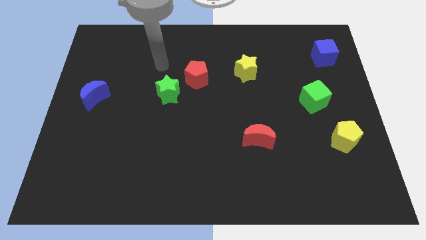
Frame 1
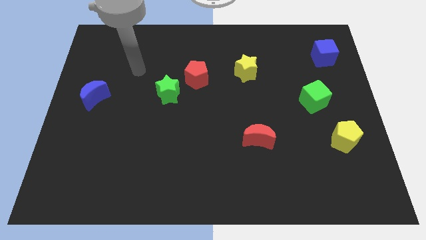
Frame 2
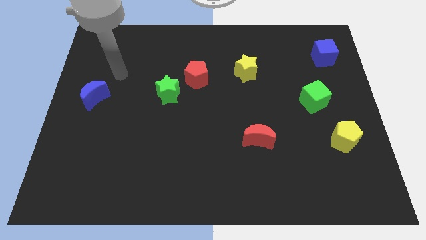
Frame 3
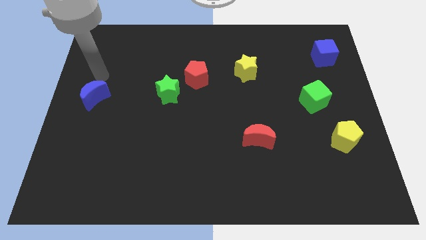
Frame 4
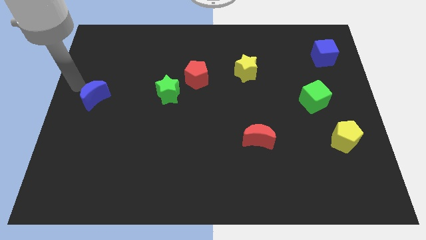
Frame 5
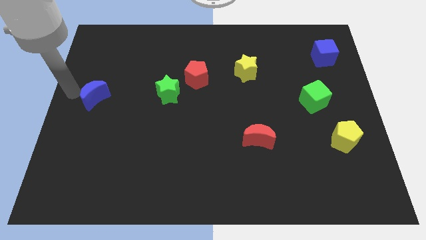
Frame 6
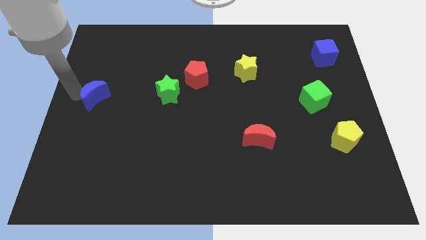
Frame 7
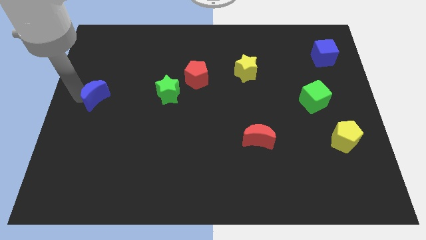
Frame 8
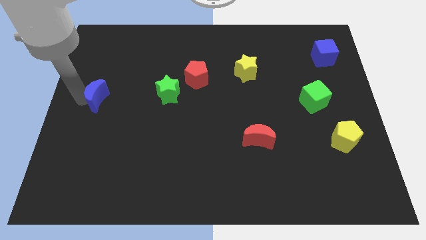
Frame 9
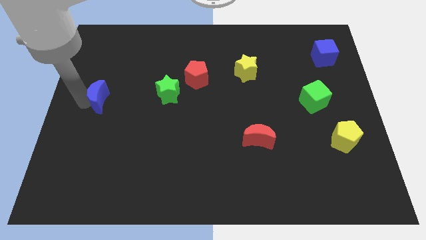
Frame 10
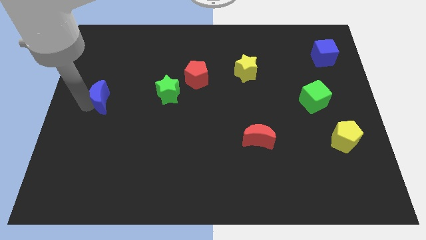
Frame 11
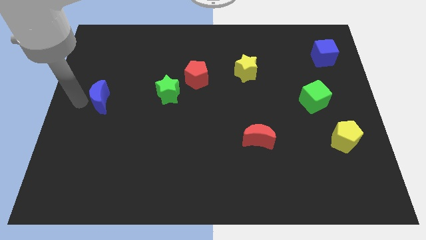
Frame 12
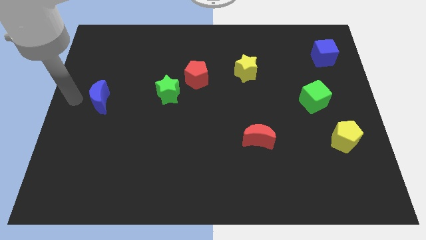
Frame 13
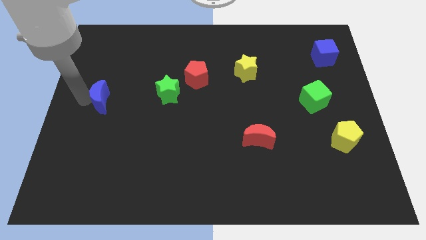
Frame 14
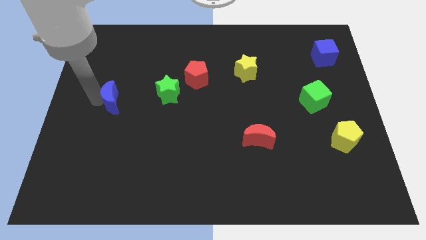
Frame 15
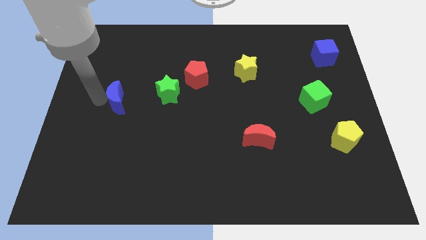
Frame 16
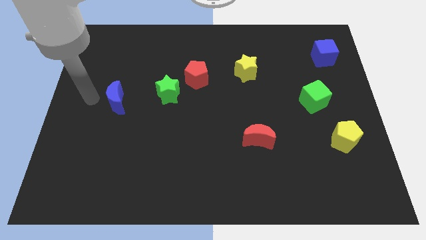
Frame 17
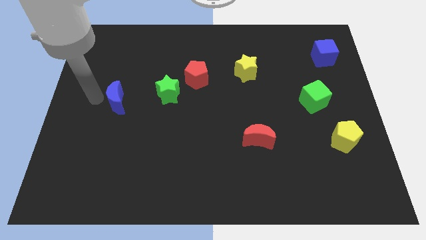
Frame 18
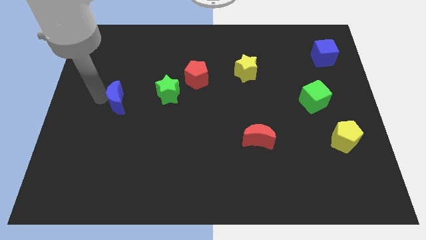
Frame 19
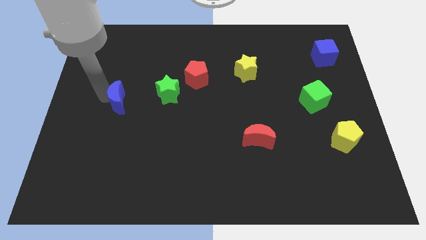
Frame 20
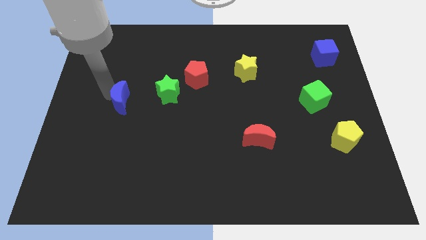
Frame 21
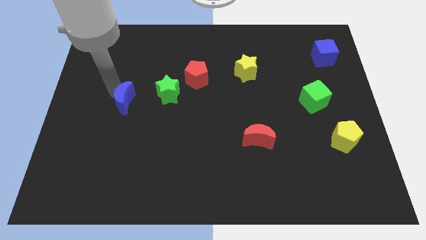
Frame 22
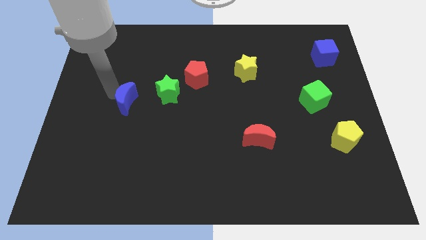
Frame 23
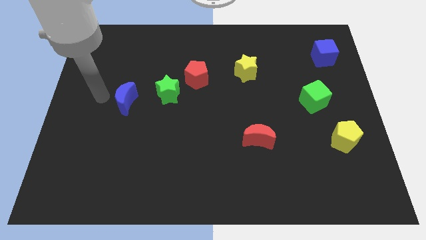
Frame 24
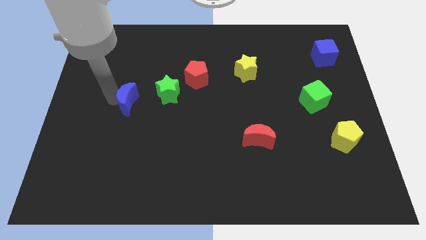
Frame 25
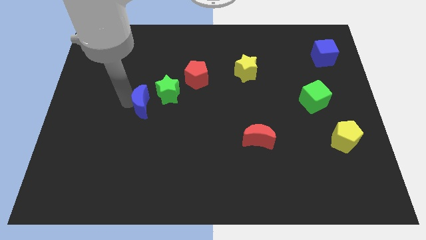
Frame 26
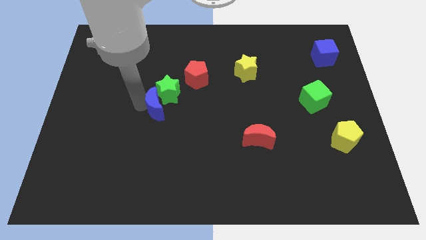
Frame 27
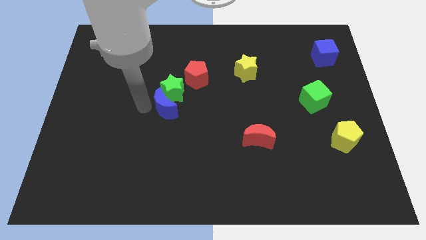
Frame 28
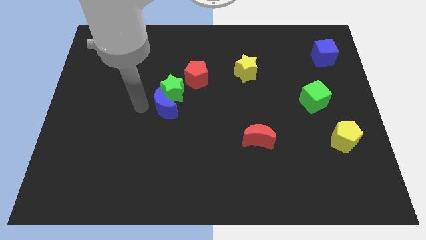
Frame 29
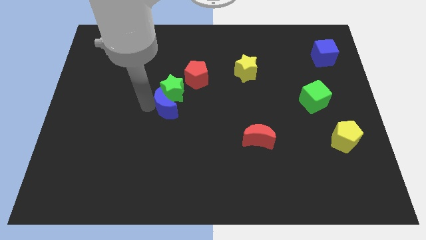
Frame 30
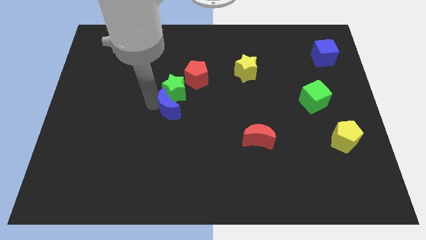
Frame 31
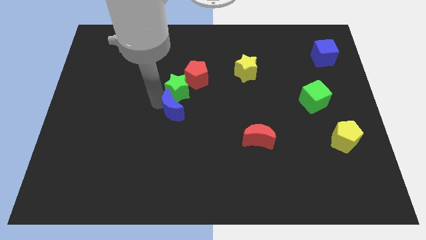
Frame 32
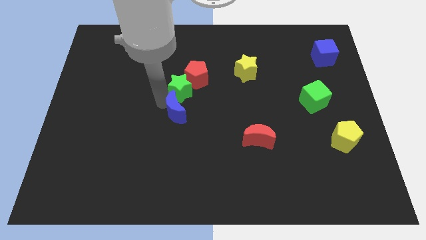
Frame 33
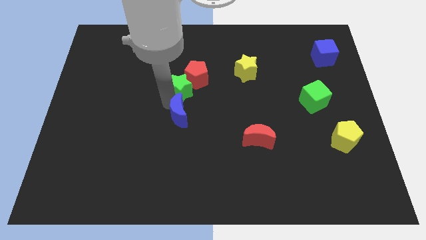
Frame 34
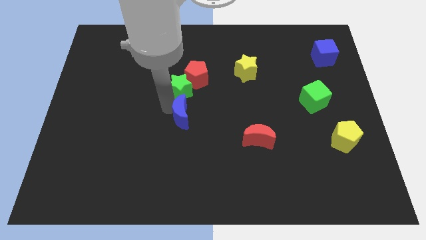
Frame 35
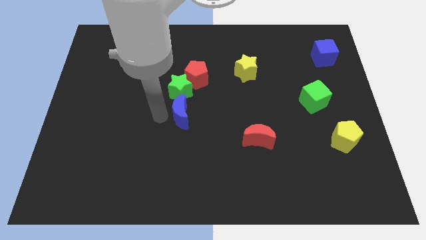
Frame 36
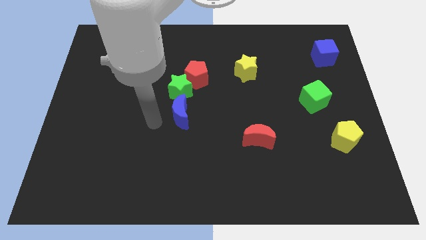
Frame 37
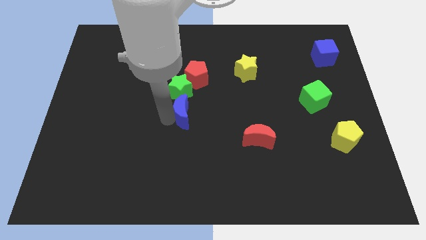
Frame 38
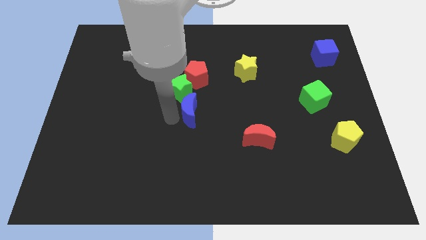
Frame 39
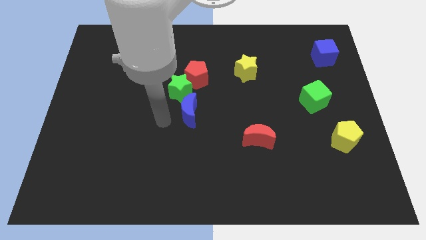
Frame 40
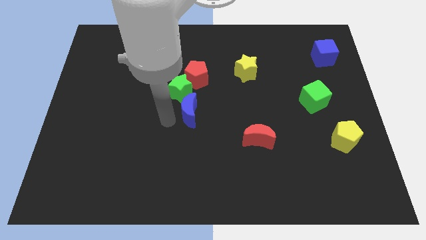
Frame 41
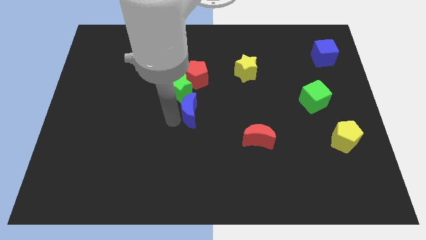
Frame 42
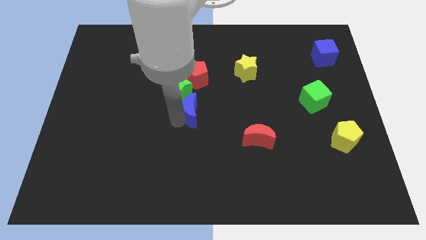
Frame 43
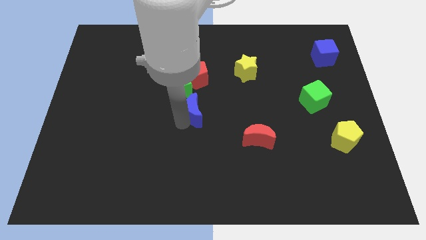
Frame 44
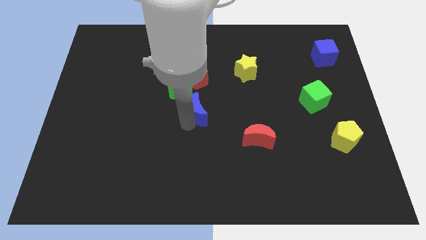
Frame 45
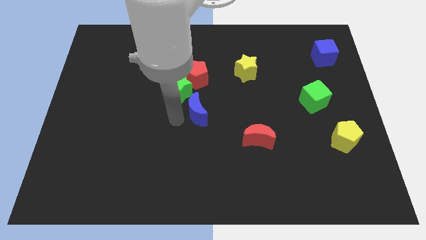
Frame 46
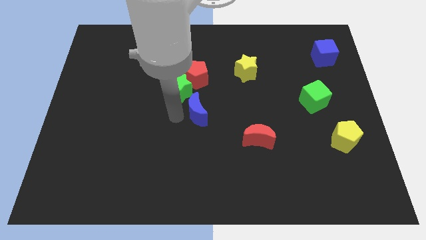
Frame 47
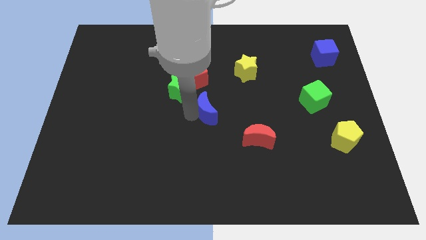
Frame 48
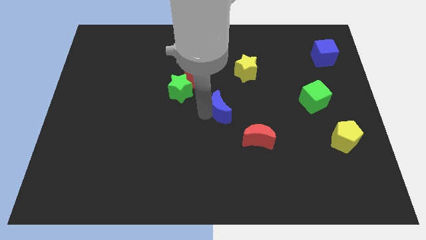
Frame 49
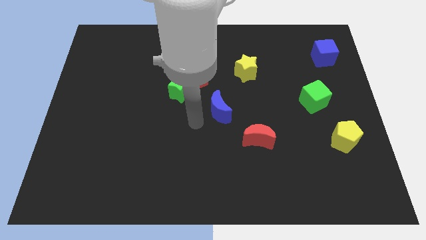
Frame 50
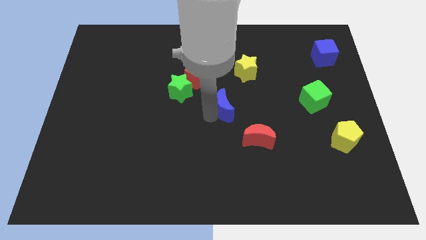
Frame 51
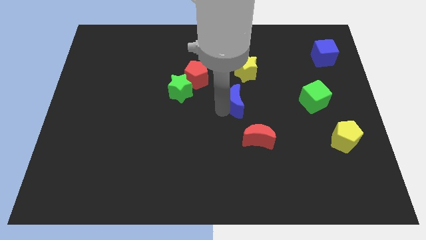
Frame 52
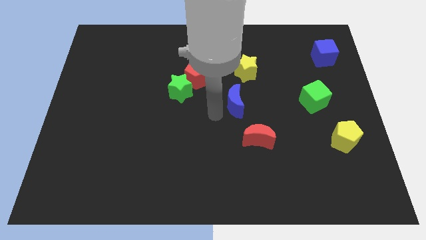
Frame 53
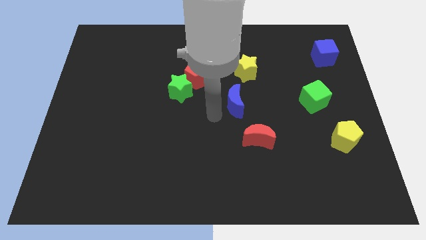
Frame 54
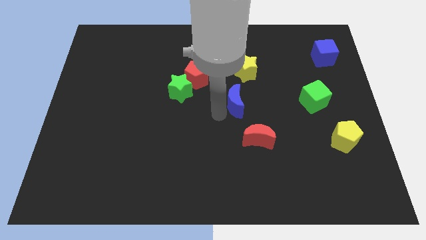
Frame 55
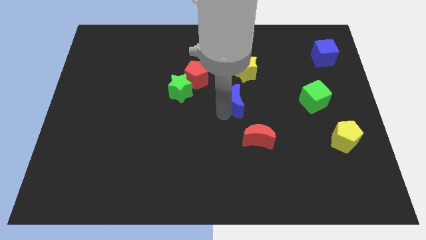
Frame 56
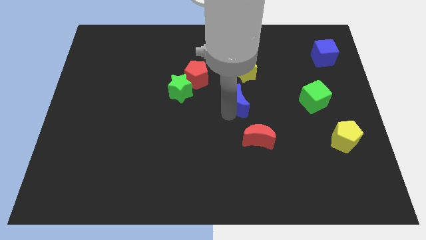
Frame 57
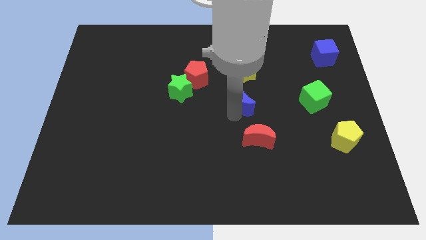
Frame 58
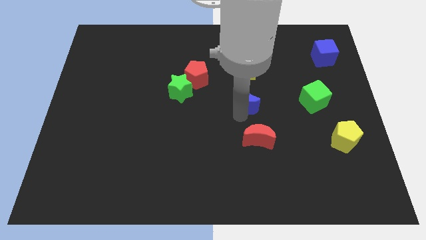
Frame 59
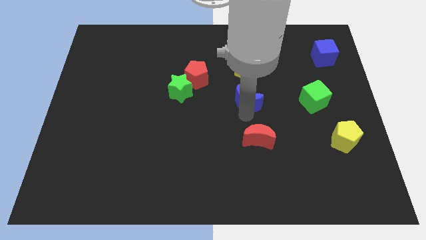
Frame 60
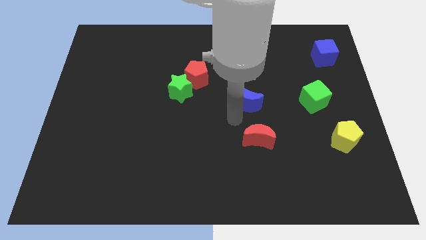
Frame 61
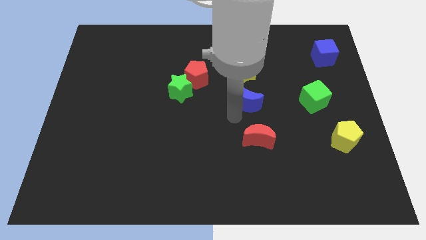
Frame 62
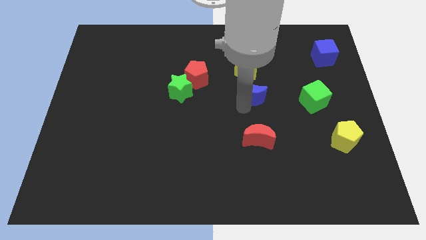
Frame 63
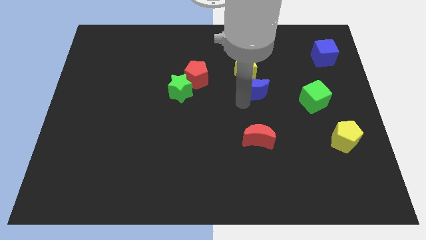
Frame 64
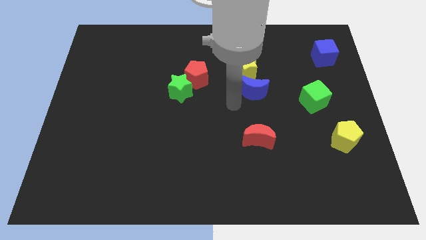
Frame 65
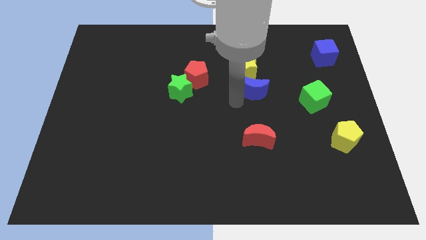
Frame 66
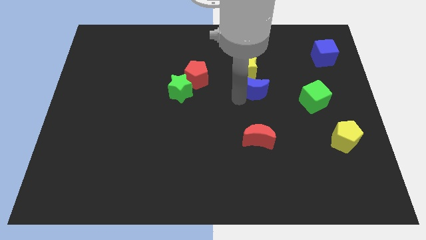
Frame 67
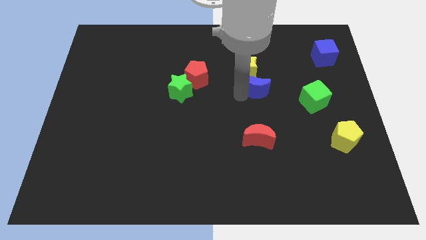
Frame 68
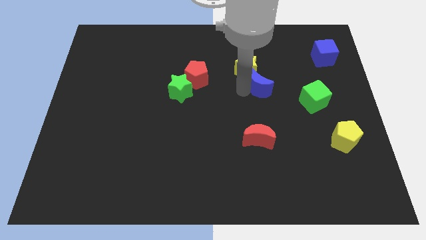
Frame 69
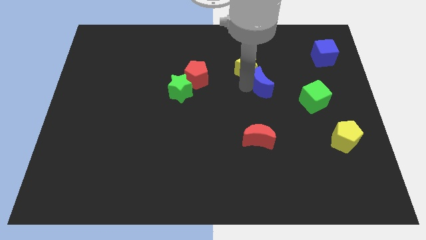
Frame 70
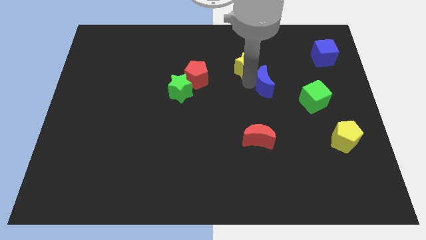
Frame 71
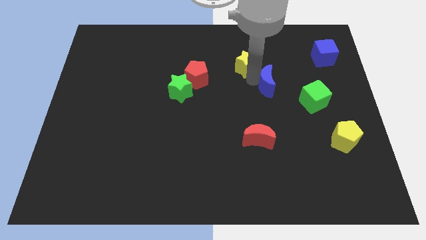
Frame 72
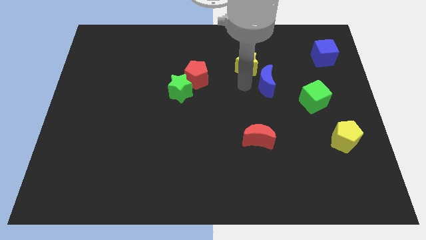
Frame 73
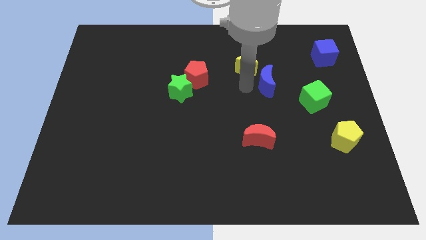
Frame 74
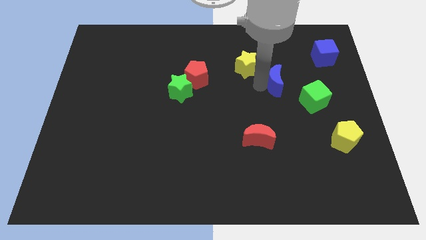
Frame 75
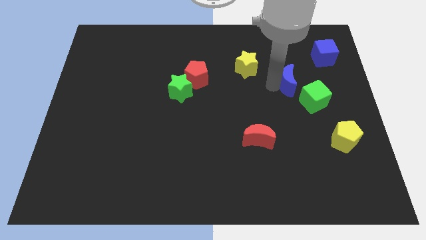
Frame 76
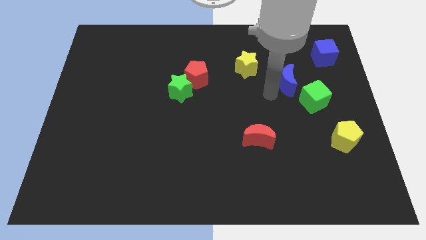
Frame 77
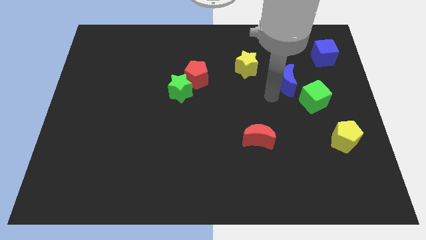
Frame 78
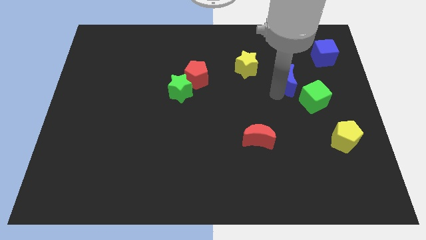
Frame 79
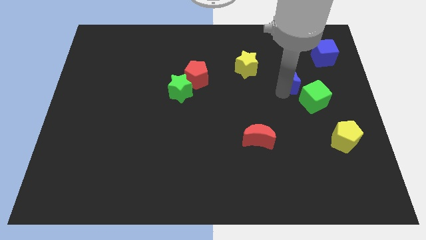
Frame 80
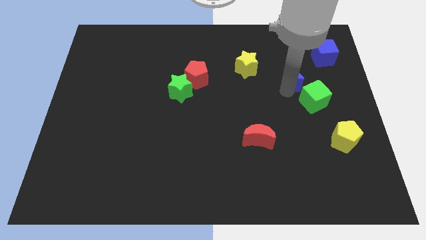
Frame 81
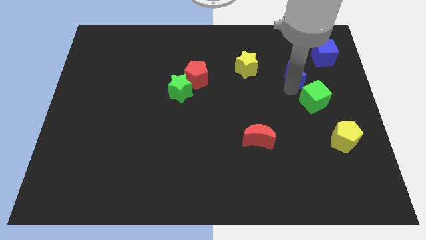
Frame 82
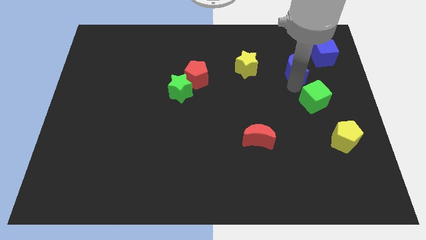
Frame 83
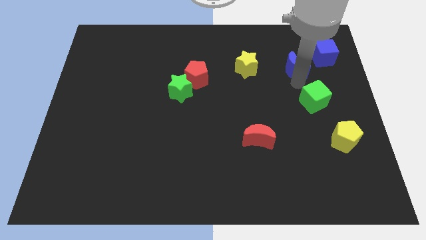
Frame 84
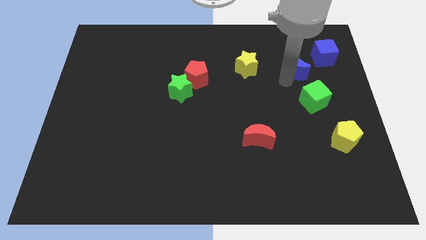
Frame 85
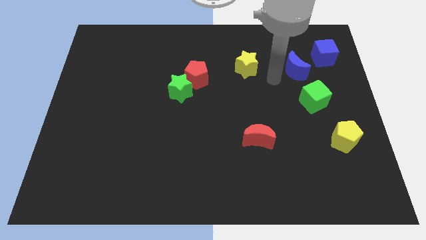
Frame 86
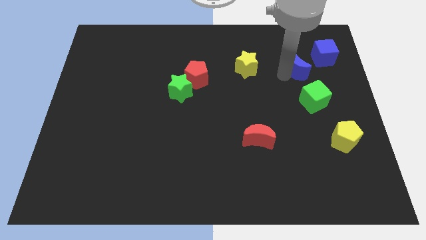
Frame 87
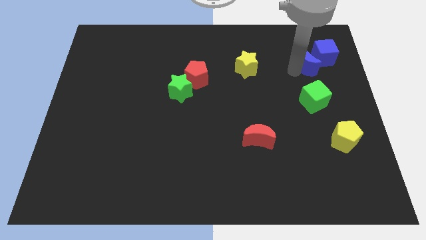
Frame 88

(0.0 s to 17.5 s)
push the blue moon next to the blue cube
